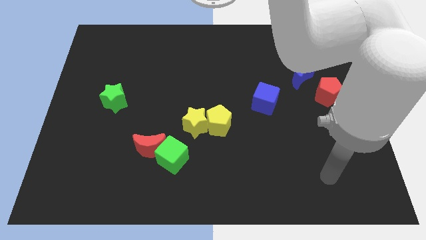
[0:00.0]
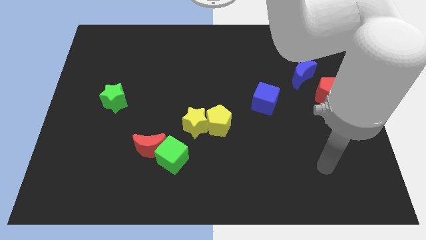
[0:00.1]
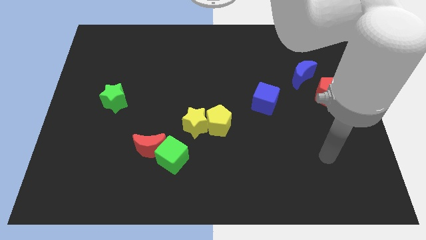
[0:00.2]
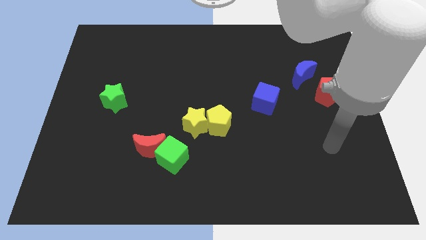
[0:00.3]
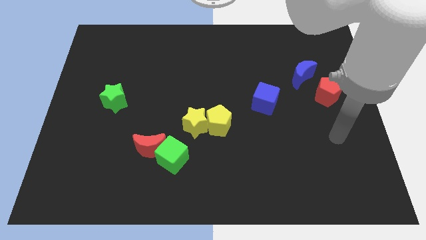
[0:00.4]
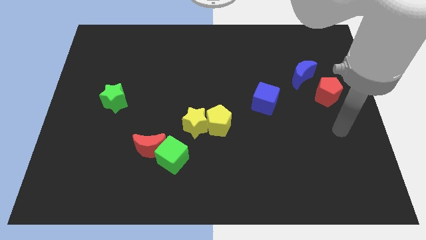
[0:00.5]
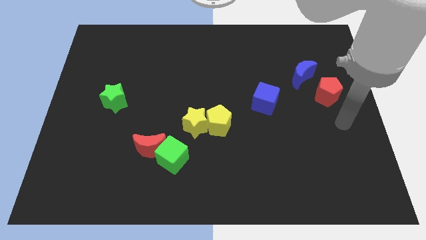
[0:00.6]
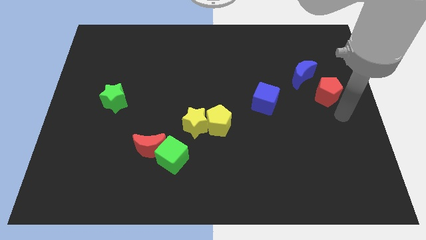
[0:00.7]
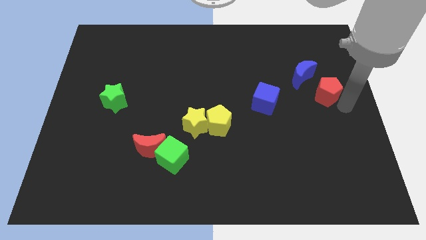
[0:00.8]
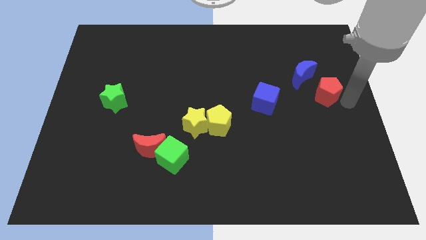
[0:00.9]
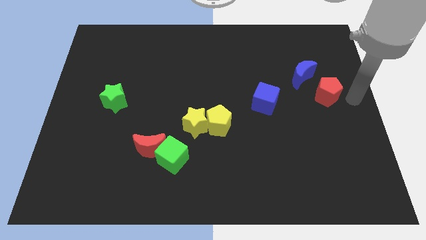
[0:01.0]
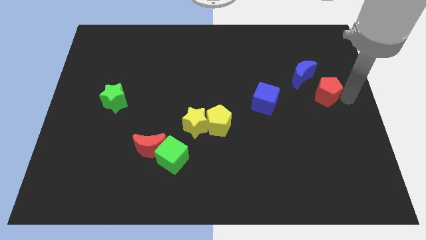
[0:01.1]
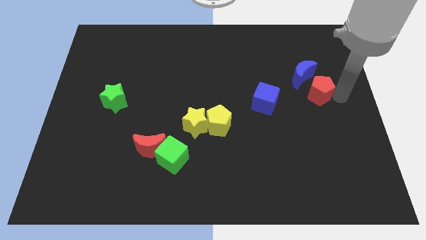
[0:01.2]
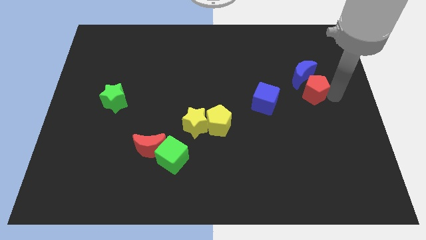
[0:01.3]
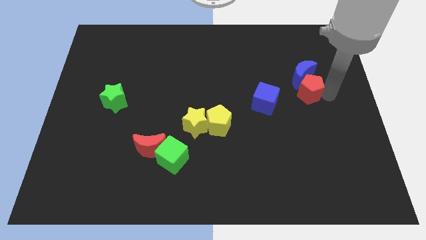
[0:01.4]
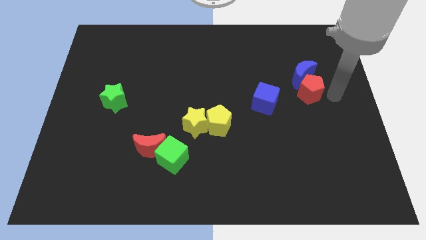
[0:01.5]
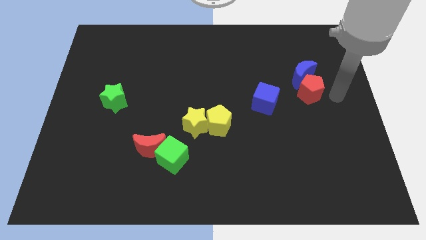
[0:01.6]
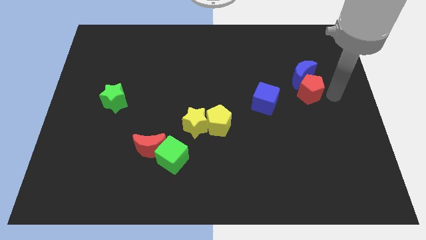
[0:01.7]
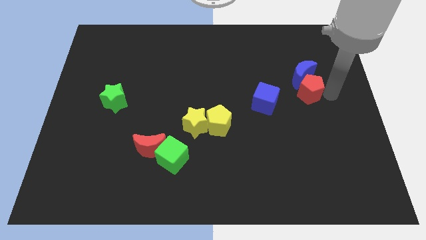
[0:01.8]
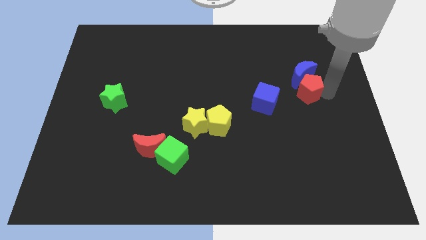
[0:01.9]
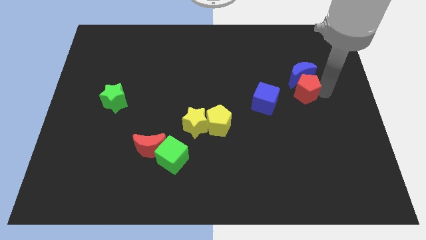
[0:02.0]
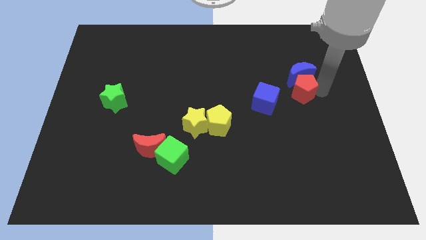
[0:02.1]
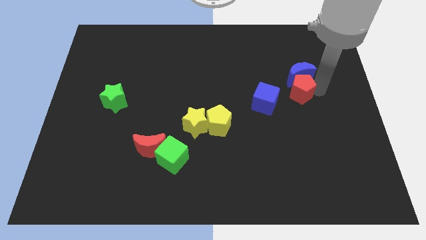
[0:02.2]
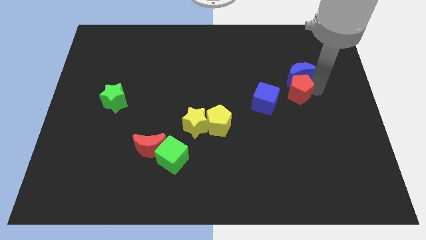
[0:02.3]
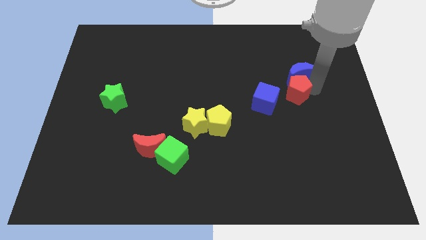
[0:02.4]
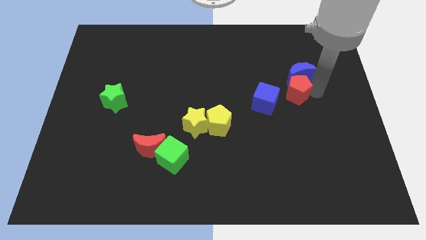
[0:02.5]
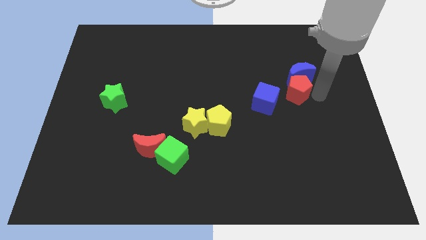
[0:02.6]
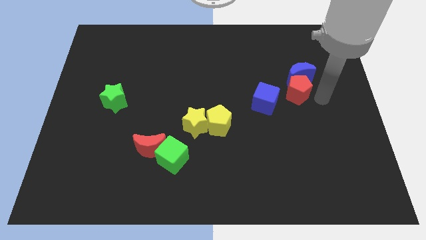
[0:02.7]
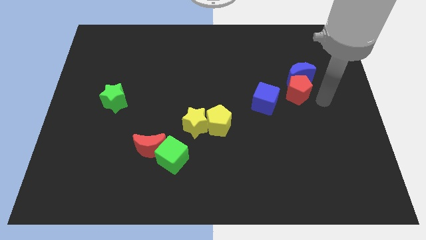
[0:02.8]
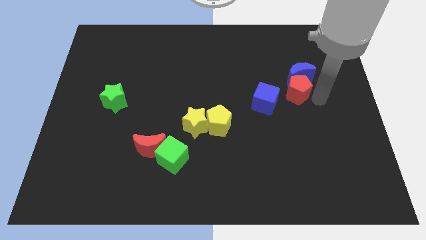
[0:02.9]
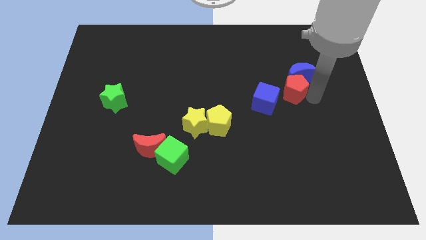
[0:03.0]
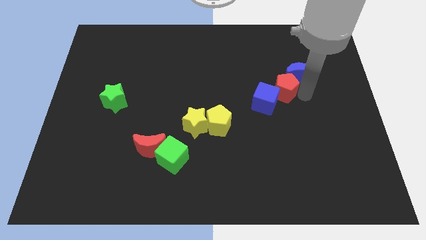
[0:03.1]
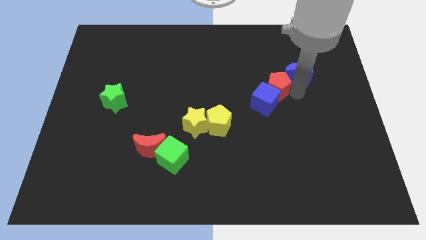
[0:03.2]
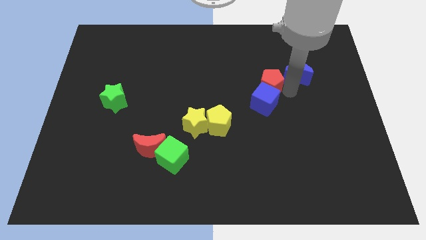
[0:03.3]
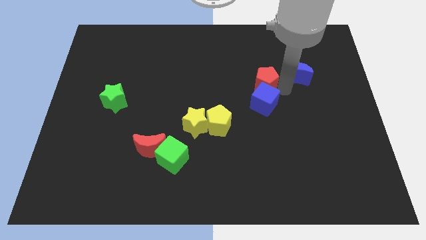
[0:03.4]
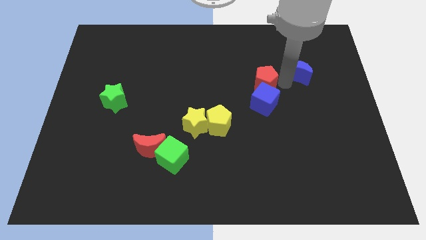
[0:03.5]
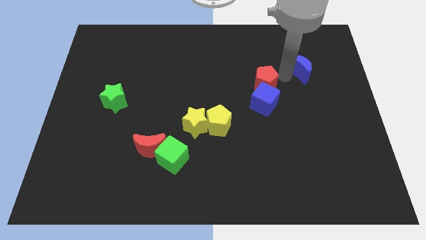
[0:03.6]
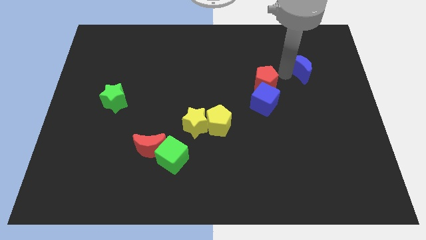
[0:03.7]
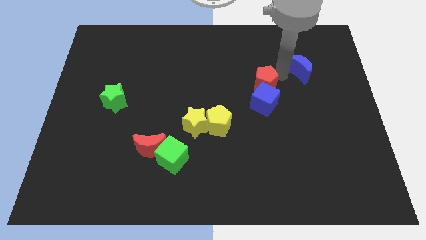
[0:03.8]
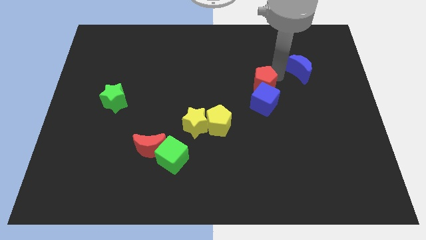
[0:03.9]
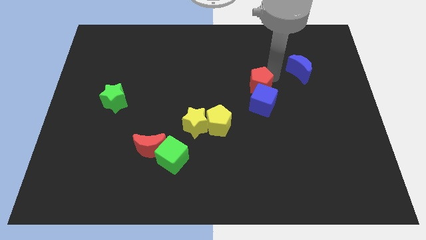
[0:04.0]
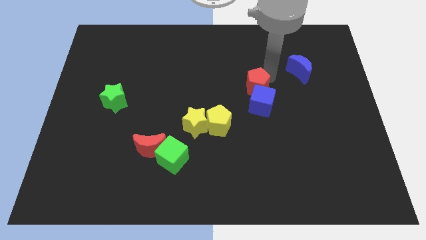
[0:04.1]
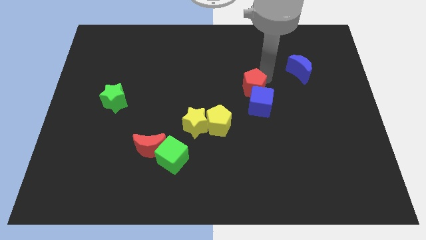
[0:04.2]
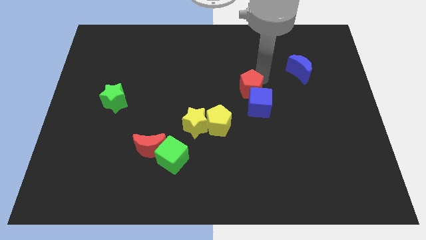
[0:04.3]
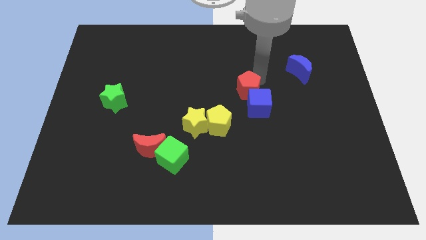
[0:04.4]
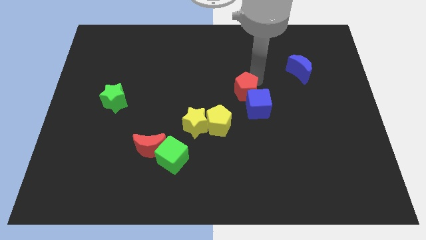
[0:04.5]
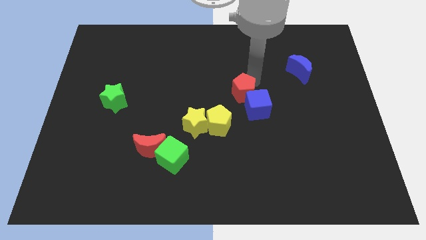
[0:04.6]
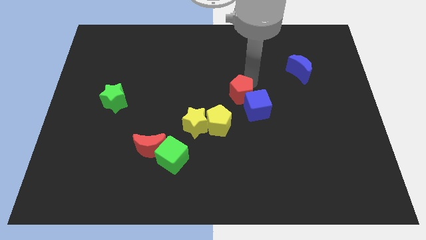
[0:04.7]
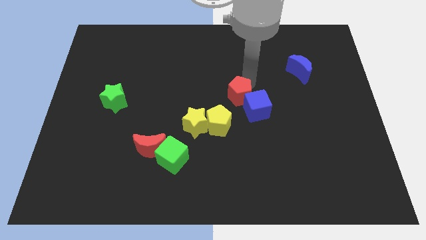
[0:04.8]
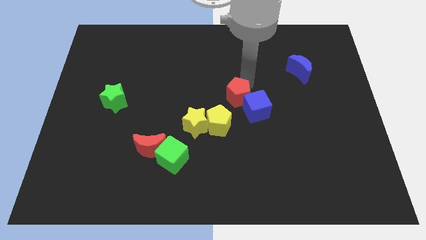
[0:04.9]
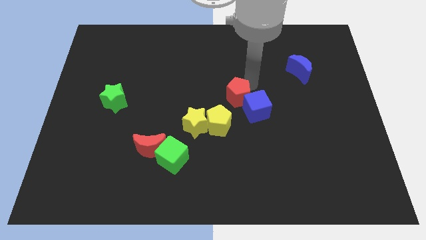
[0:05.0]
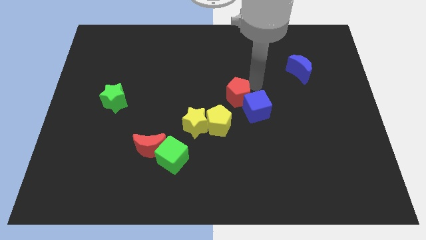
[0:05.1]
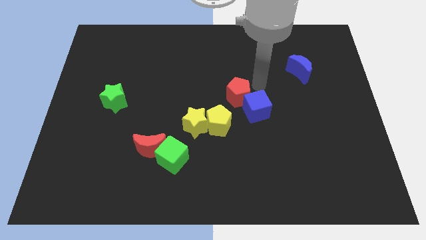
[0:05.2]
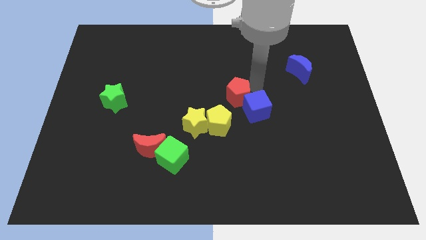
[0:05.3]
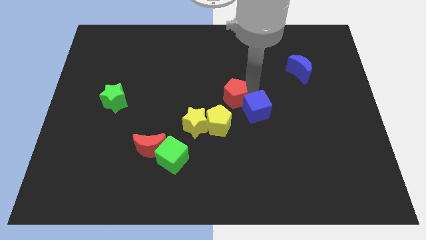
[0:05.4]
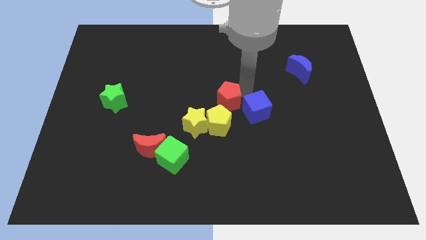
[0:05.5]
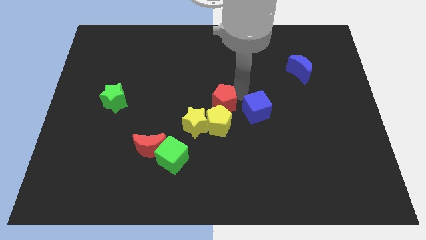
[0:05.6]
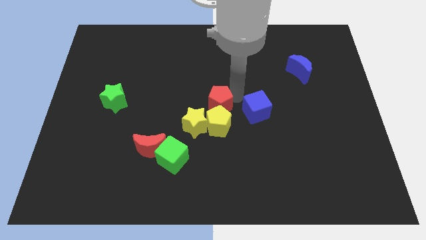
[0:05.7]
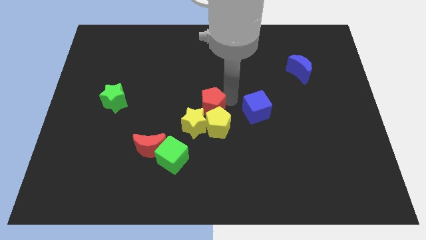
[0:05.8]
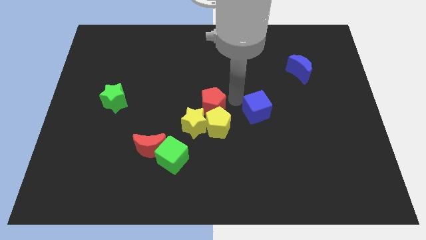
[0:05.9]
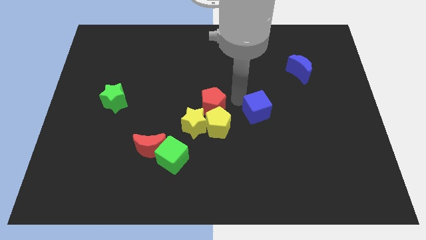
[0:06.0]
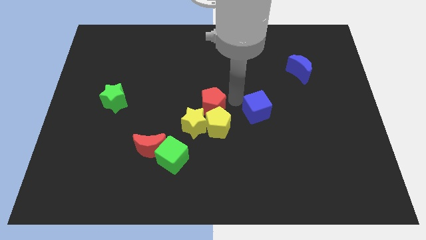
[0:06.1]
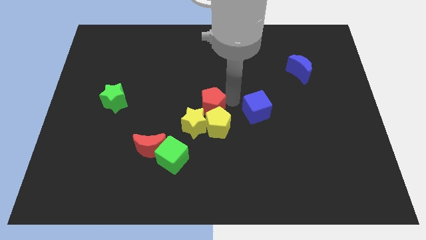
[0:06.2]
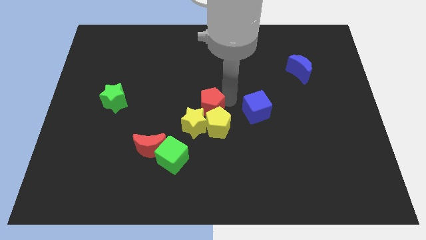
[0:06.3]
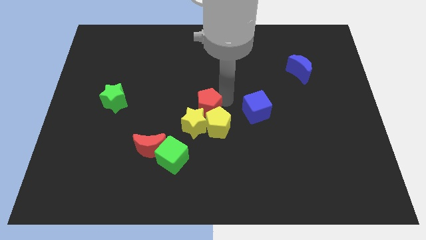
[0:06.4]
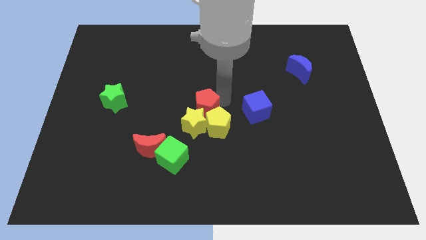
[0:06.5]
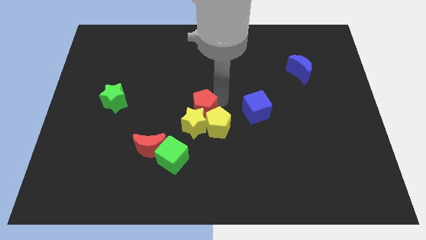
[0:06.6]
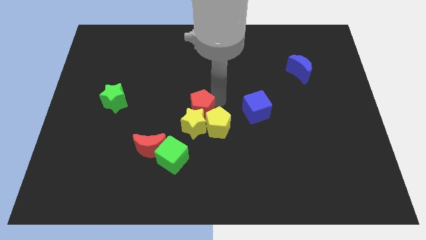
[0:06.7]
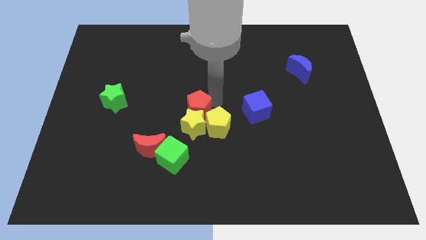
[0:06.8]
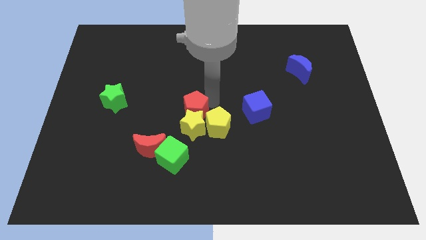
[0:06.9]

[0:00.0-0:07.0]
move the red pentagon above the green cube
